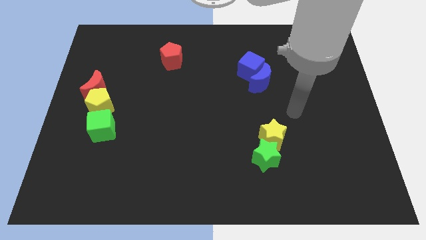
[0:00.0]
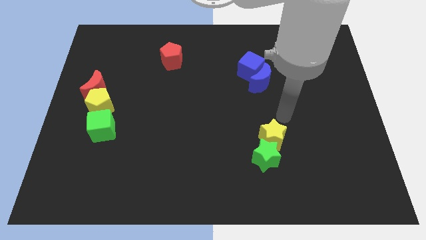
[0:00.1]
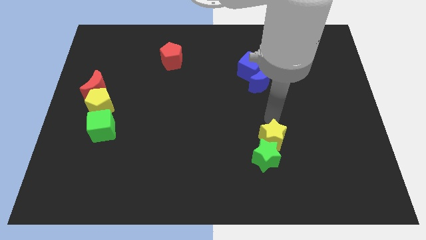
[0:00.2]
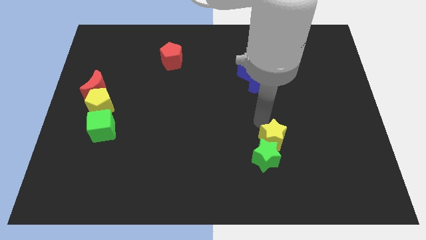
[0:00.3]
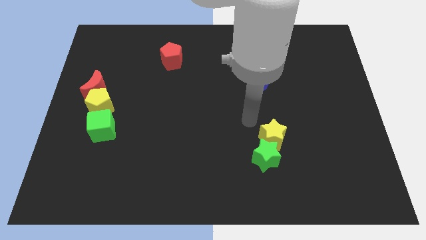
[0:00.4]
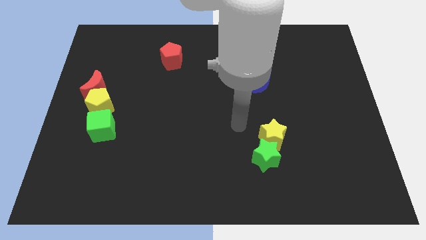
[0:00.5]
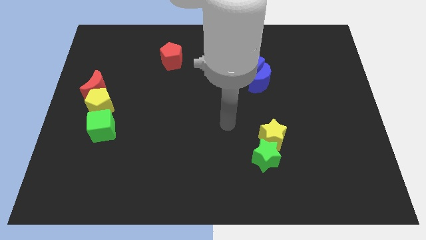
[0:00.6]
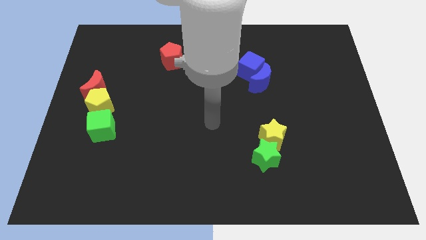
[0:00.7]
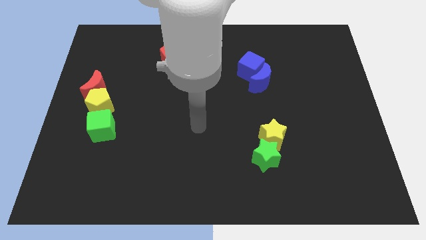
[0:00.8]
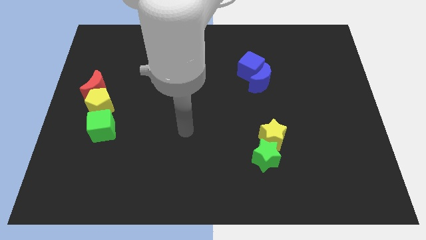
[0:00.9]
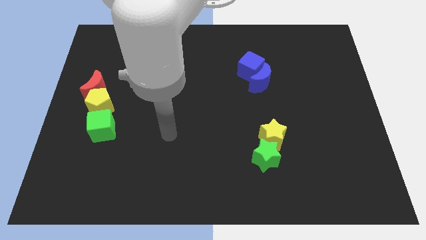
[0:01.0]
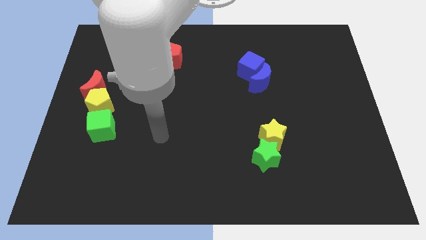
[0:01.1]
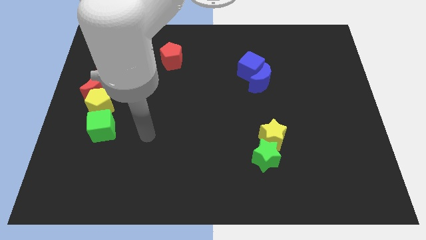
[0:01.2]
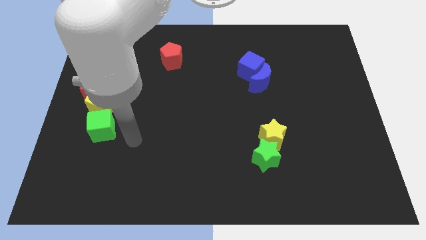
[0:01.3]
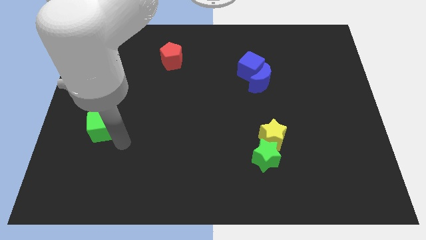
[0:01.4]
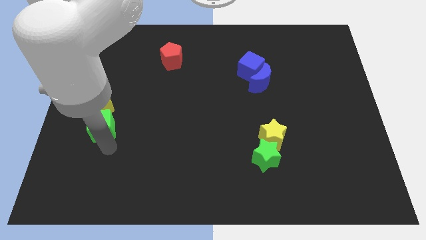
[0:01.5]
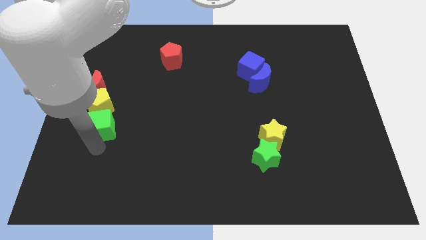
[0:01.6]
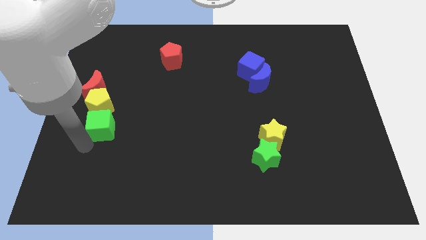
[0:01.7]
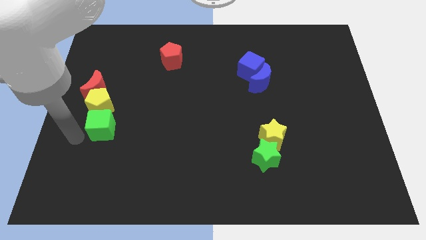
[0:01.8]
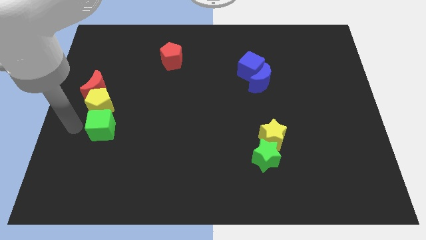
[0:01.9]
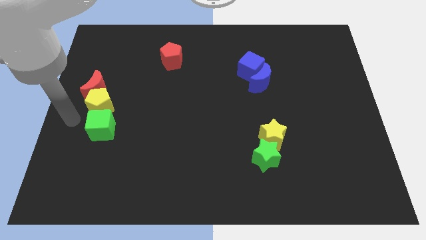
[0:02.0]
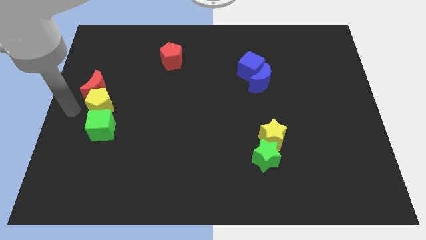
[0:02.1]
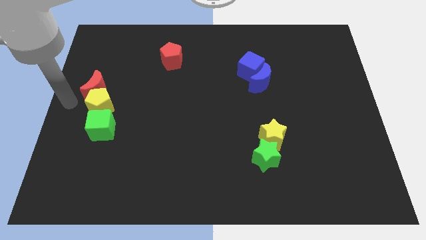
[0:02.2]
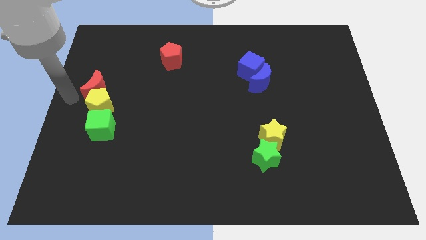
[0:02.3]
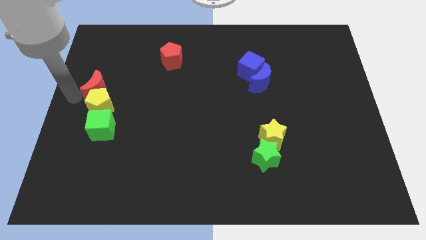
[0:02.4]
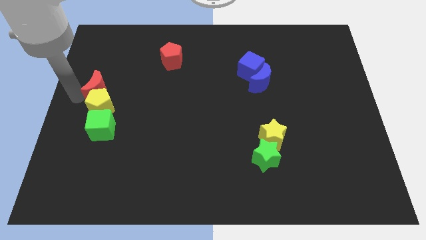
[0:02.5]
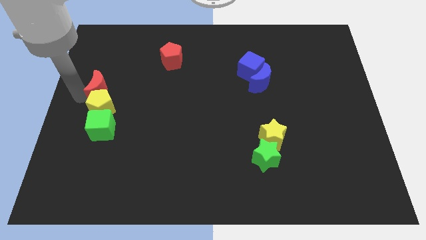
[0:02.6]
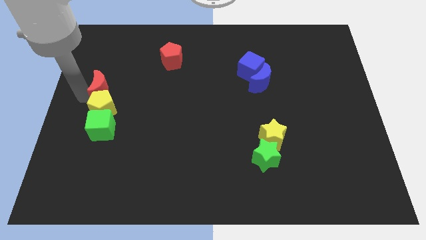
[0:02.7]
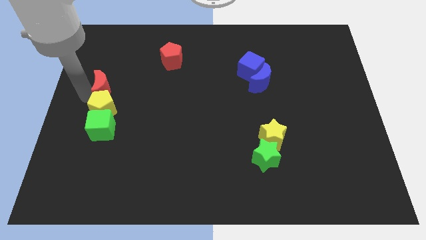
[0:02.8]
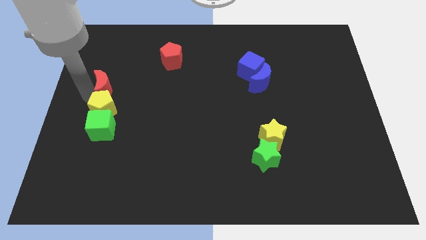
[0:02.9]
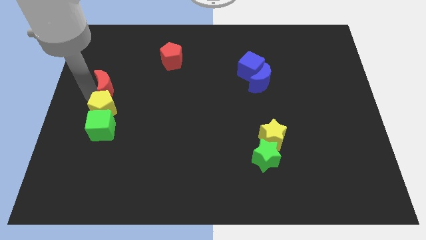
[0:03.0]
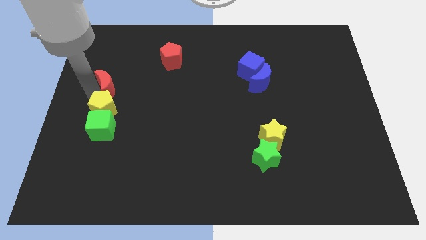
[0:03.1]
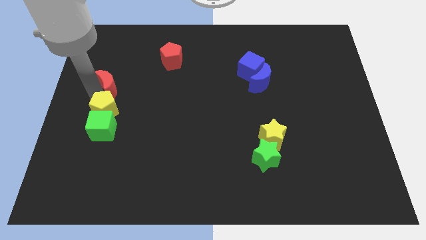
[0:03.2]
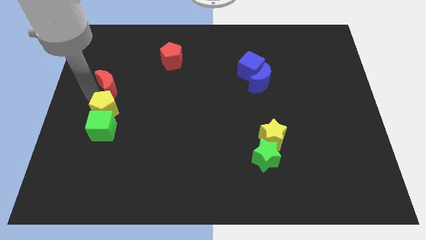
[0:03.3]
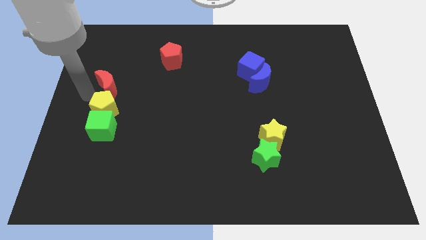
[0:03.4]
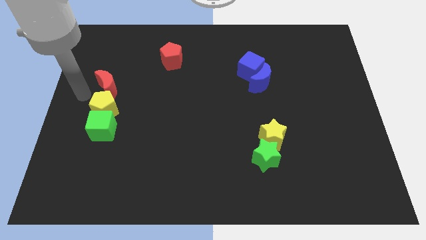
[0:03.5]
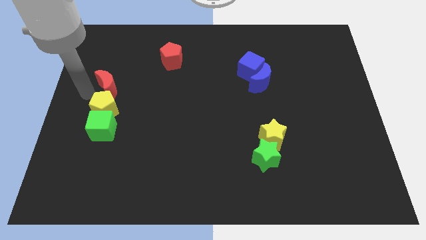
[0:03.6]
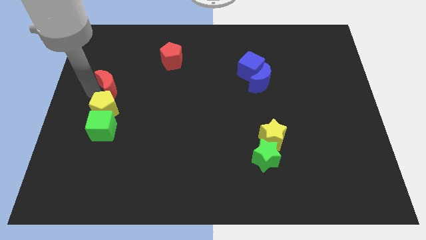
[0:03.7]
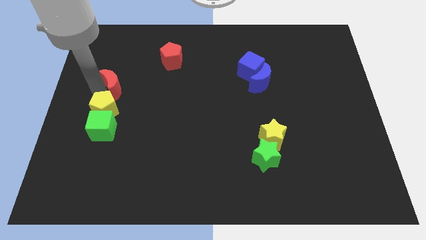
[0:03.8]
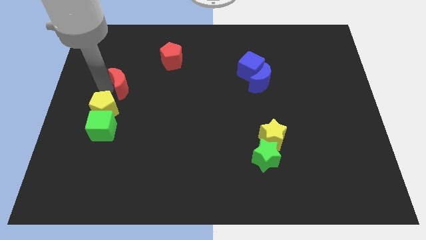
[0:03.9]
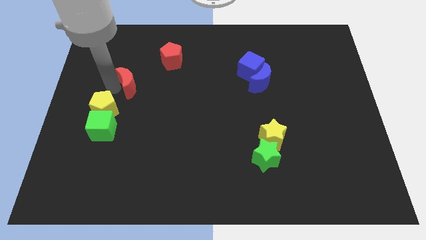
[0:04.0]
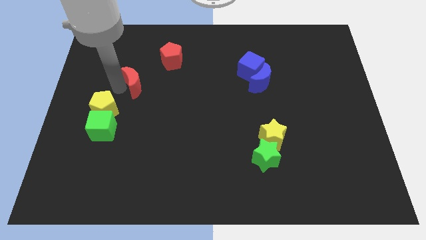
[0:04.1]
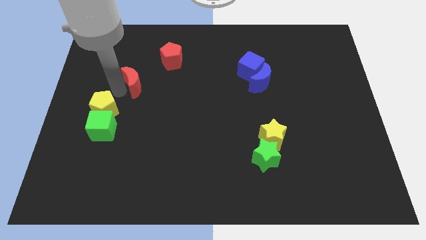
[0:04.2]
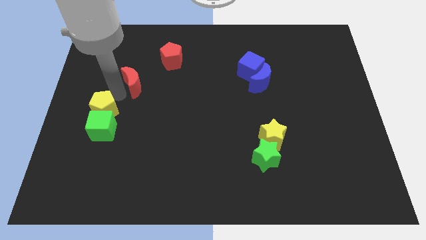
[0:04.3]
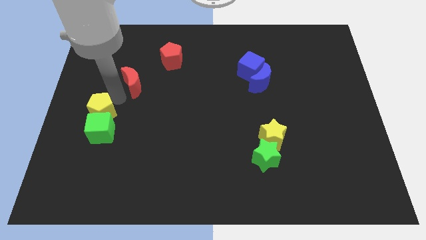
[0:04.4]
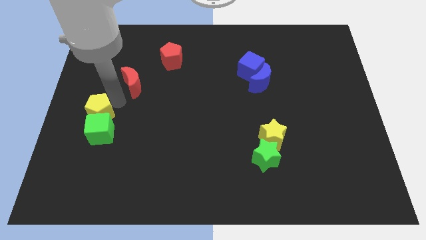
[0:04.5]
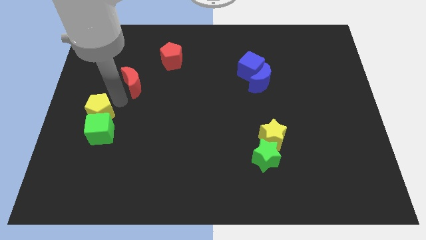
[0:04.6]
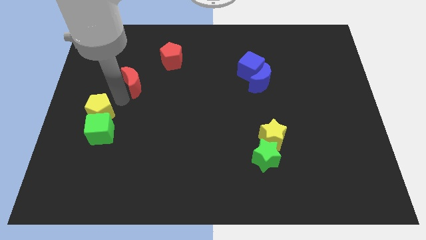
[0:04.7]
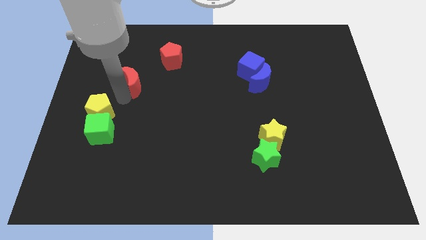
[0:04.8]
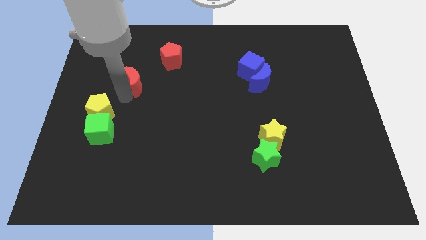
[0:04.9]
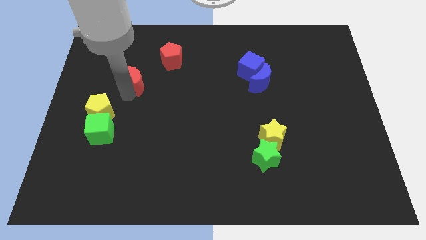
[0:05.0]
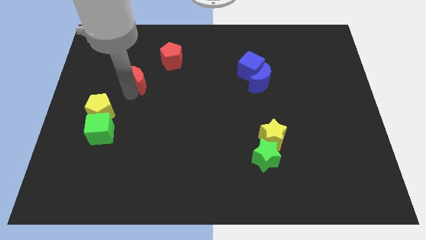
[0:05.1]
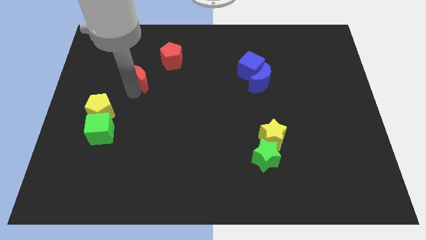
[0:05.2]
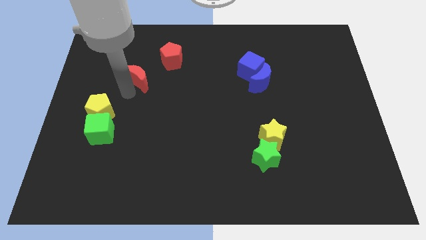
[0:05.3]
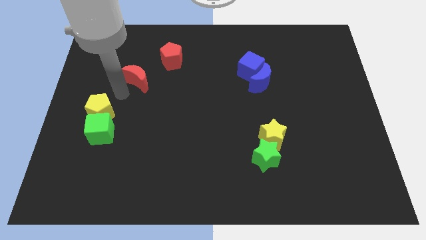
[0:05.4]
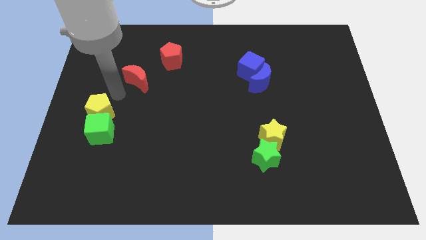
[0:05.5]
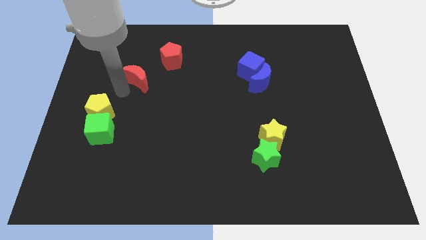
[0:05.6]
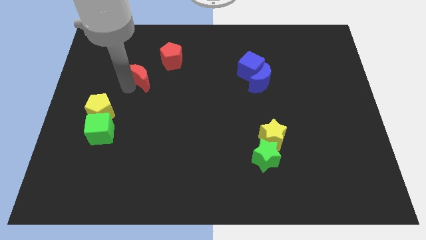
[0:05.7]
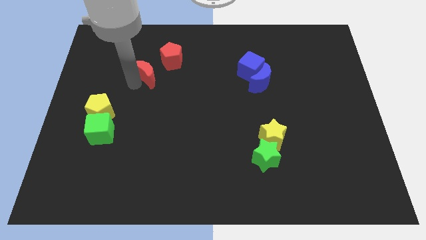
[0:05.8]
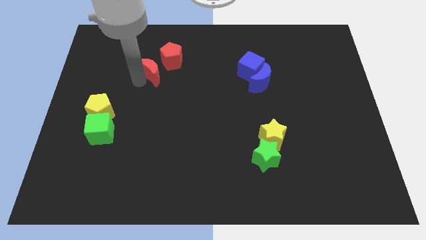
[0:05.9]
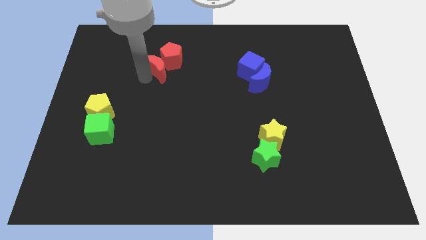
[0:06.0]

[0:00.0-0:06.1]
put the red moon close to the red pentagon
